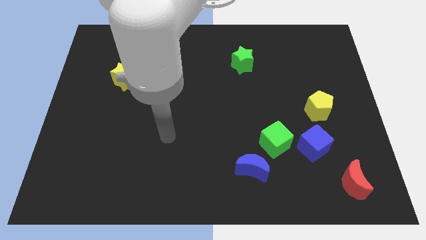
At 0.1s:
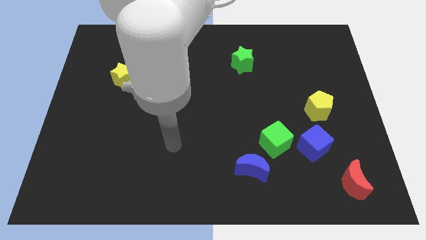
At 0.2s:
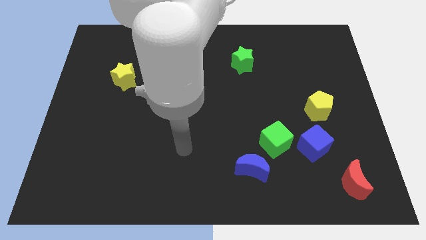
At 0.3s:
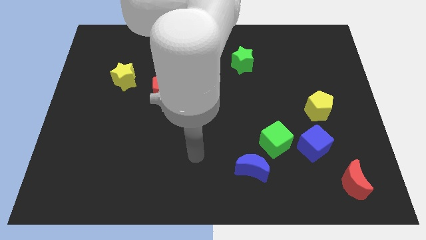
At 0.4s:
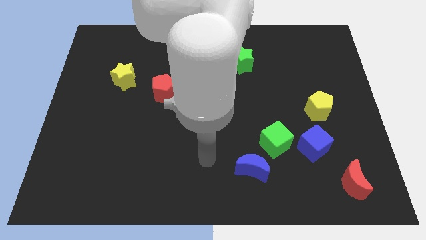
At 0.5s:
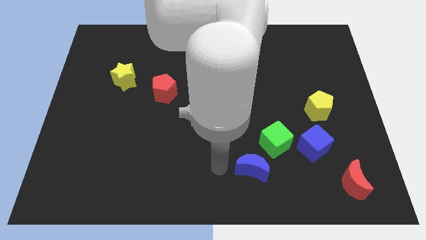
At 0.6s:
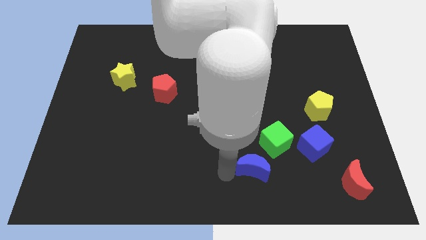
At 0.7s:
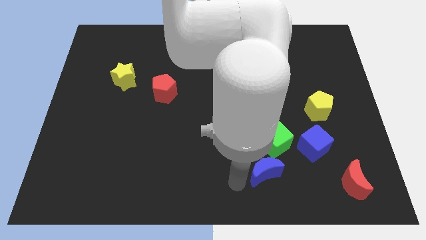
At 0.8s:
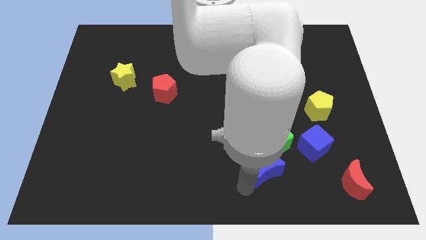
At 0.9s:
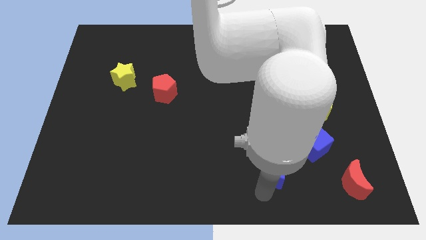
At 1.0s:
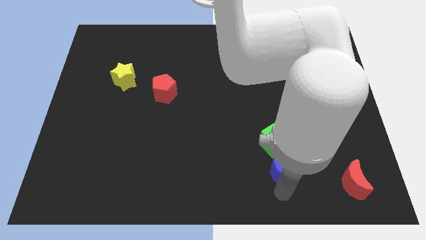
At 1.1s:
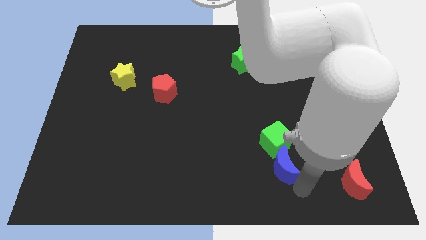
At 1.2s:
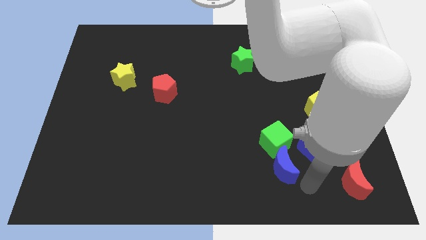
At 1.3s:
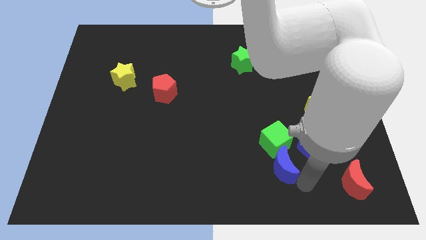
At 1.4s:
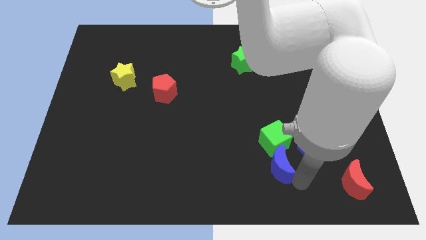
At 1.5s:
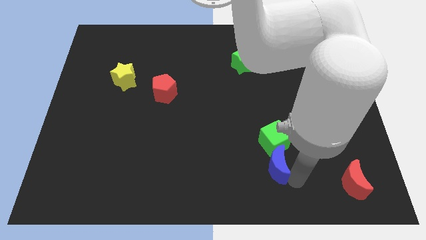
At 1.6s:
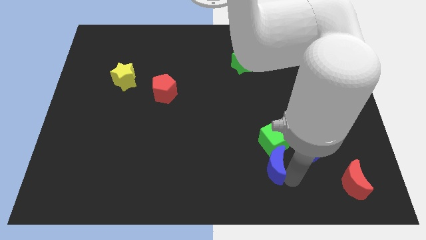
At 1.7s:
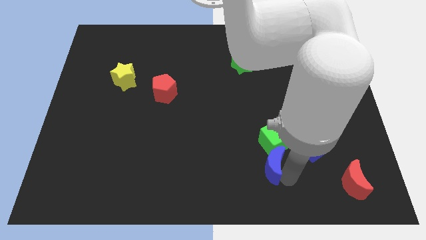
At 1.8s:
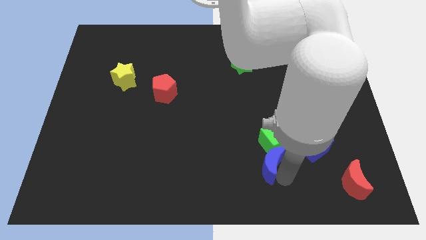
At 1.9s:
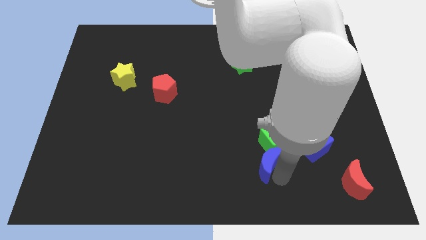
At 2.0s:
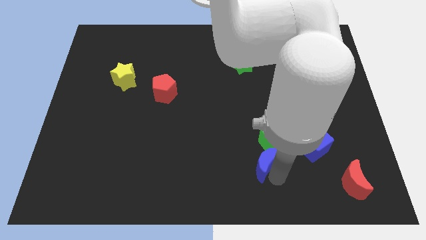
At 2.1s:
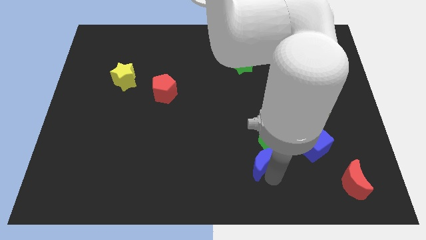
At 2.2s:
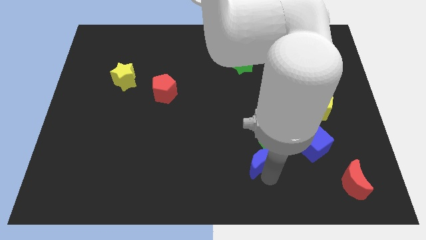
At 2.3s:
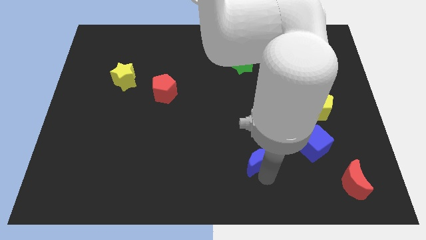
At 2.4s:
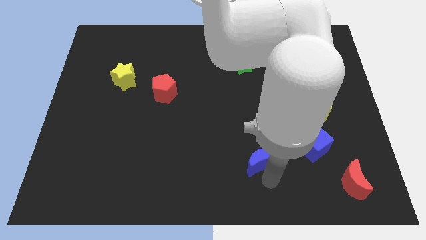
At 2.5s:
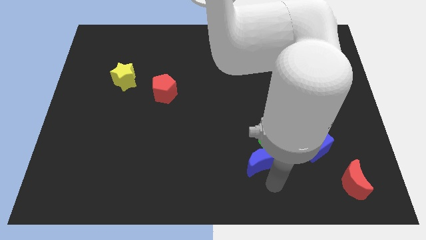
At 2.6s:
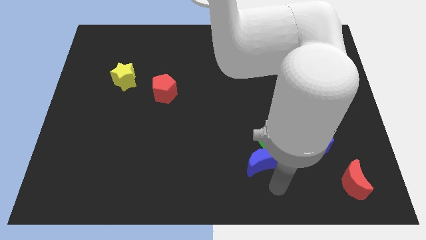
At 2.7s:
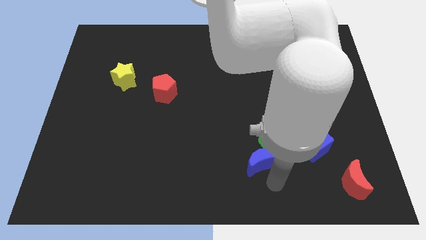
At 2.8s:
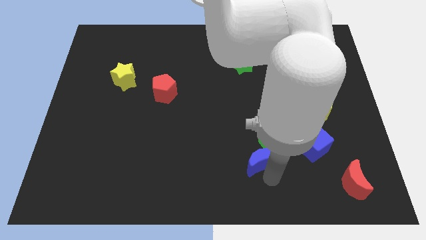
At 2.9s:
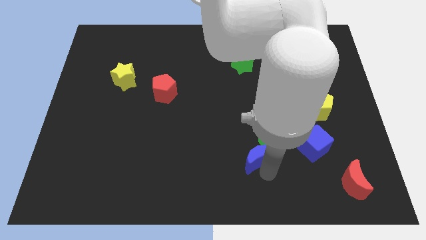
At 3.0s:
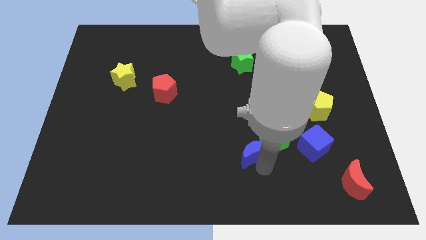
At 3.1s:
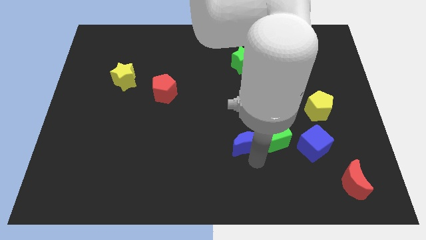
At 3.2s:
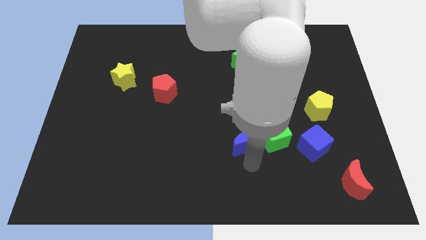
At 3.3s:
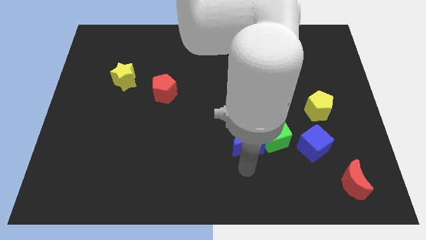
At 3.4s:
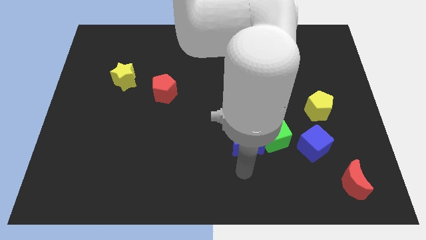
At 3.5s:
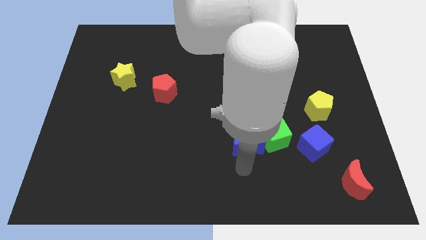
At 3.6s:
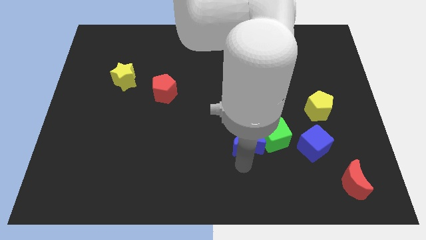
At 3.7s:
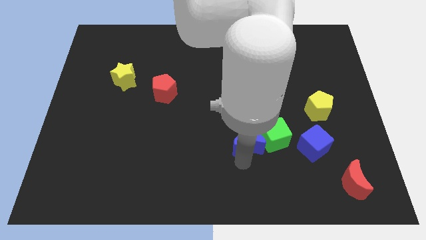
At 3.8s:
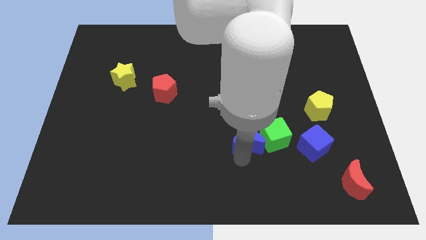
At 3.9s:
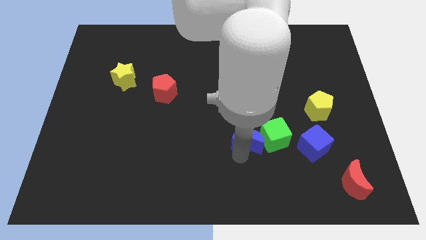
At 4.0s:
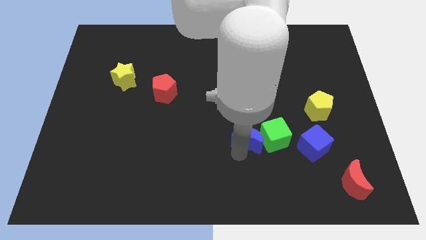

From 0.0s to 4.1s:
move the blue moon a bit up

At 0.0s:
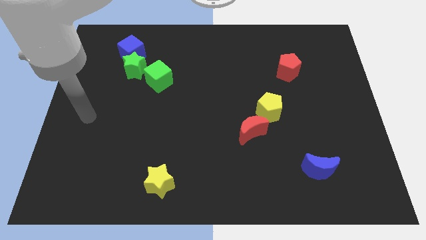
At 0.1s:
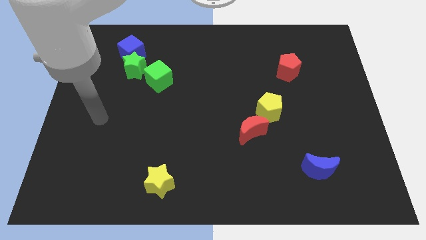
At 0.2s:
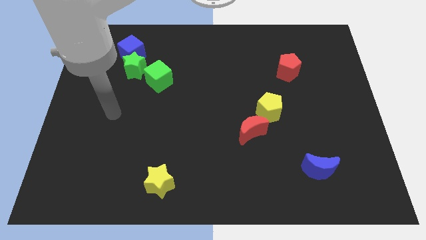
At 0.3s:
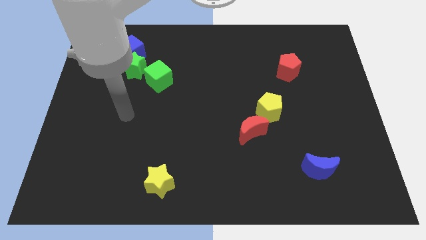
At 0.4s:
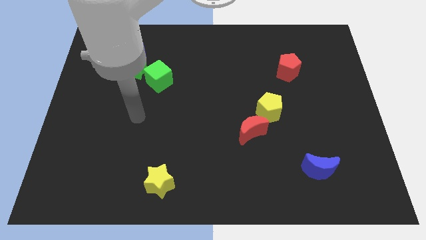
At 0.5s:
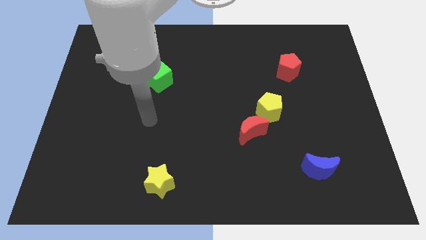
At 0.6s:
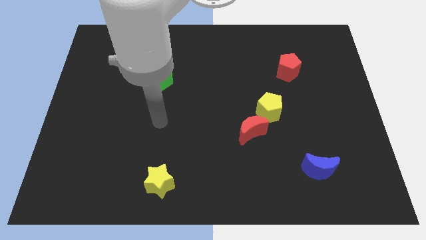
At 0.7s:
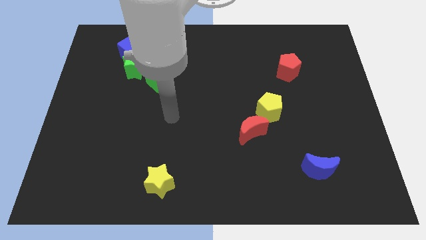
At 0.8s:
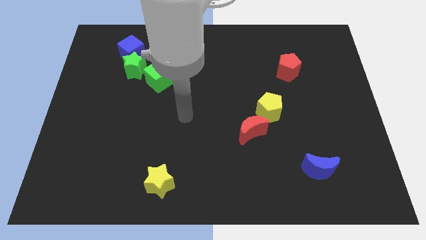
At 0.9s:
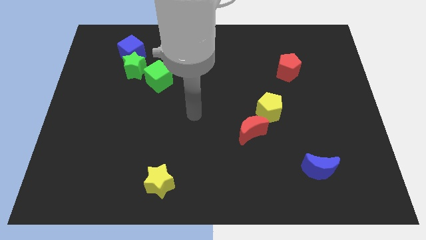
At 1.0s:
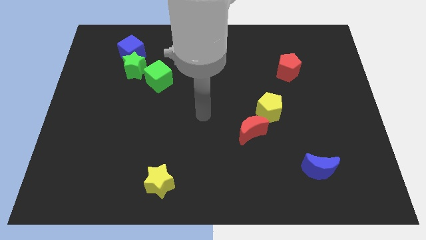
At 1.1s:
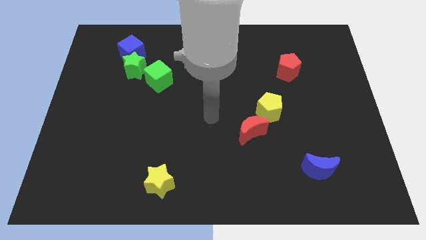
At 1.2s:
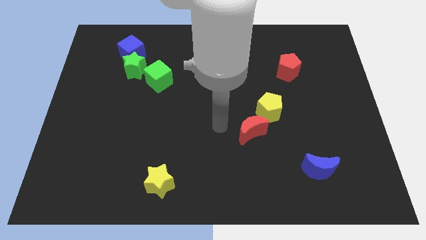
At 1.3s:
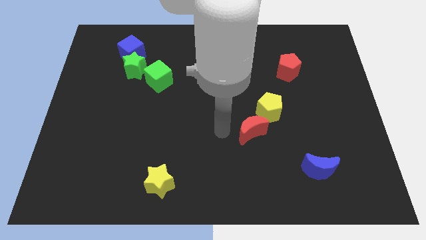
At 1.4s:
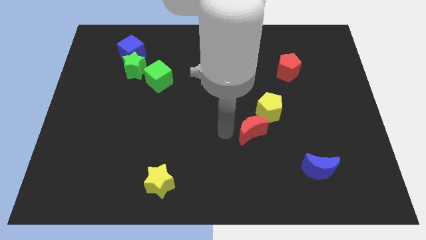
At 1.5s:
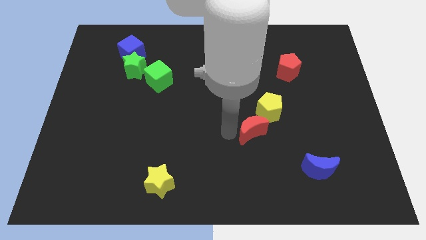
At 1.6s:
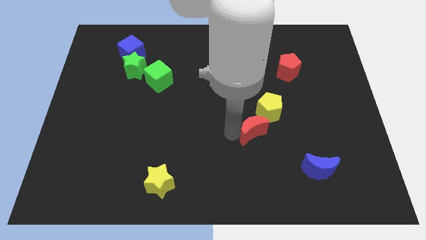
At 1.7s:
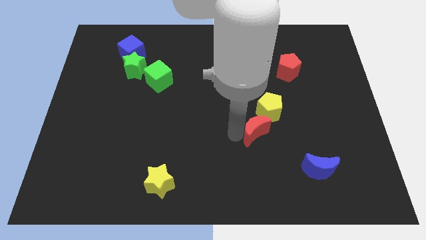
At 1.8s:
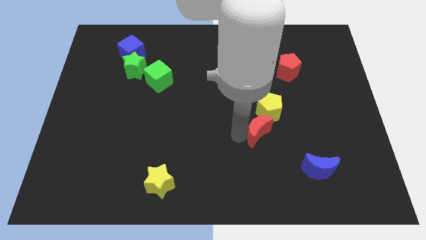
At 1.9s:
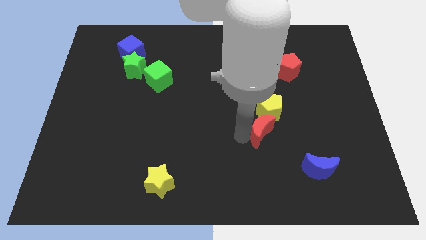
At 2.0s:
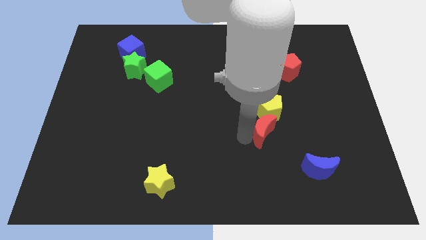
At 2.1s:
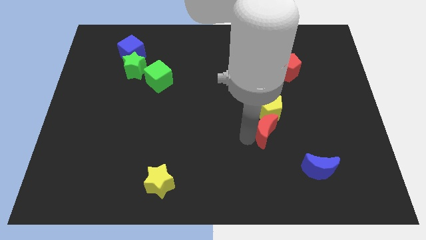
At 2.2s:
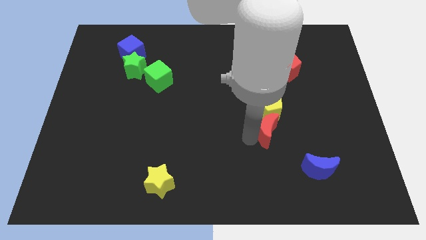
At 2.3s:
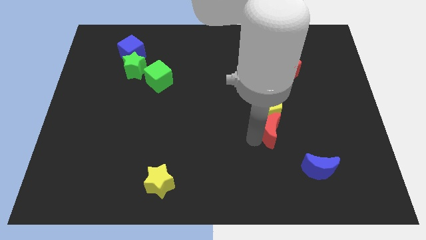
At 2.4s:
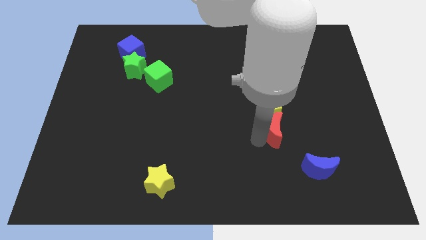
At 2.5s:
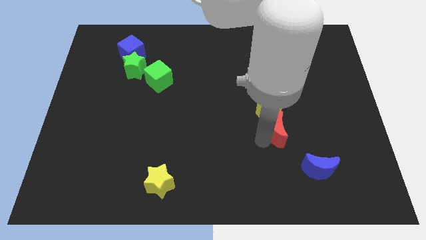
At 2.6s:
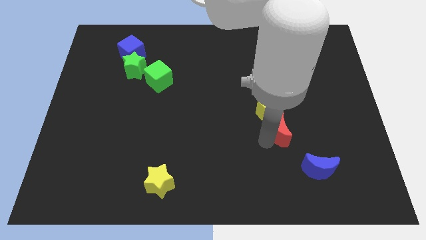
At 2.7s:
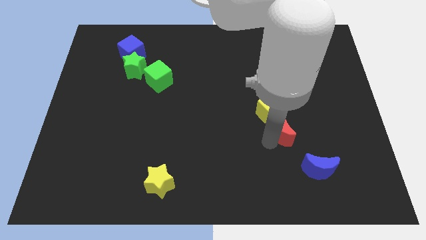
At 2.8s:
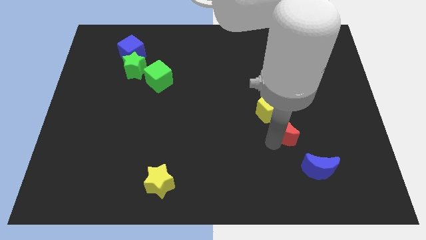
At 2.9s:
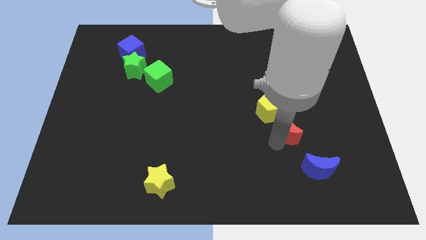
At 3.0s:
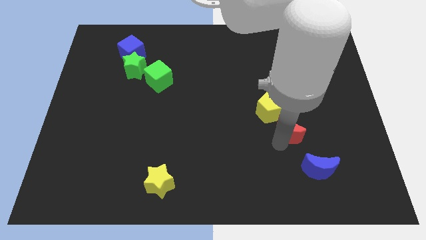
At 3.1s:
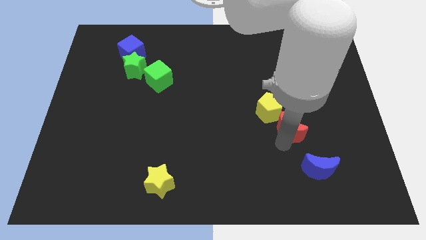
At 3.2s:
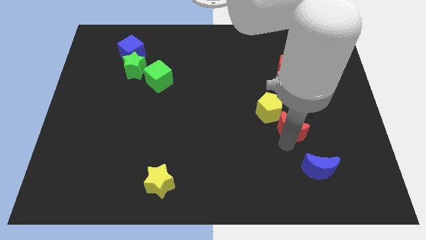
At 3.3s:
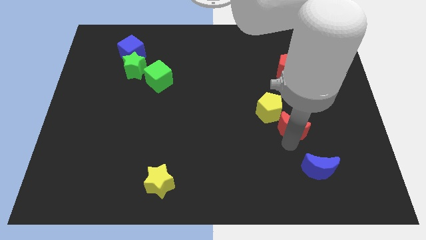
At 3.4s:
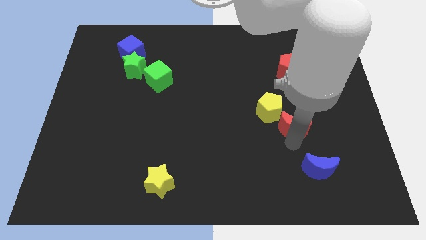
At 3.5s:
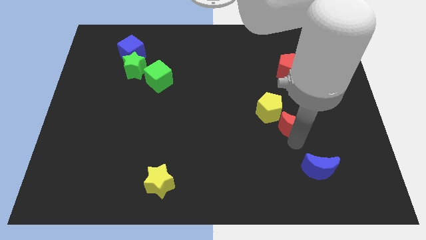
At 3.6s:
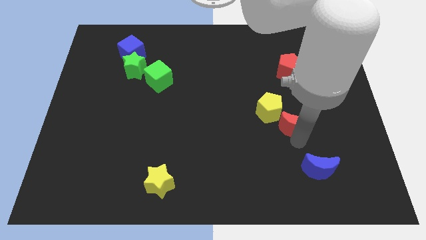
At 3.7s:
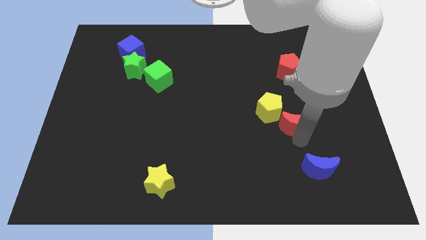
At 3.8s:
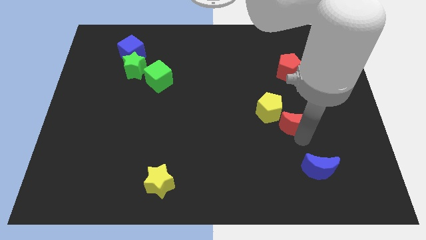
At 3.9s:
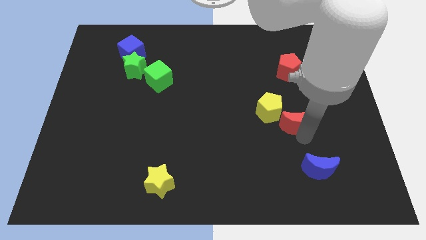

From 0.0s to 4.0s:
slightly push the red moon upwards and then right
